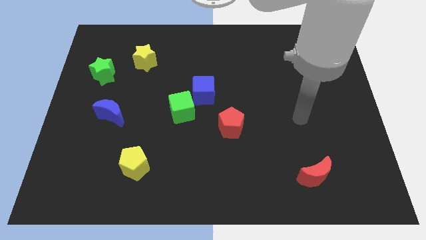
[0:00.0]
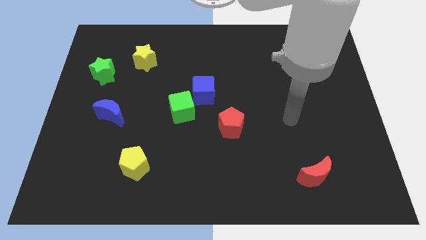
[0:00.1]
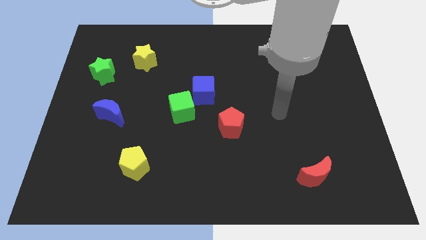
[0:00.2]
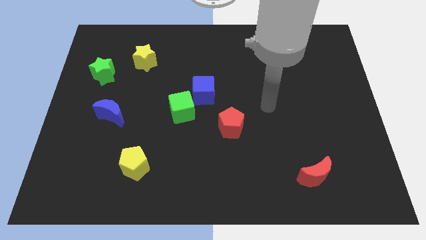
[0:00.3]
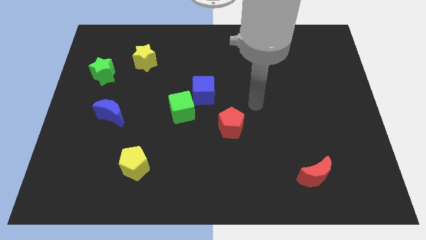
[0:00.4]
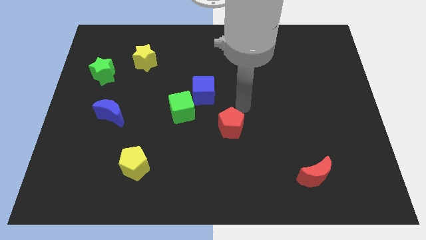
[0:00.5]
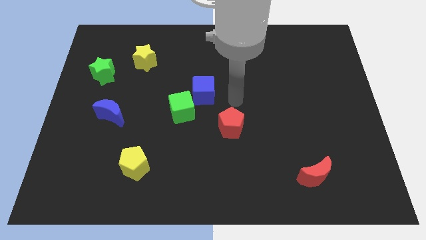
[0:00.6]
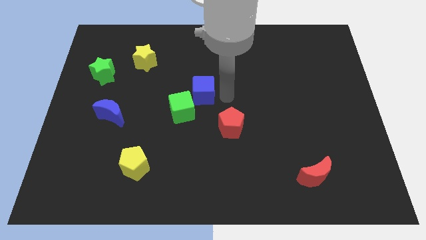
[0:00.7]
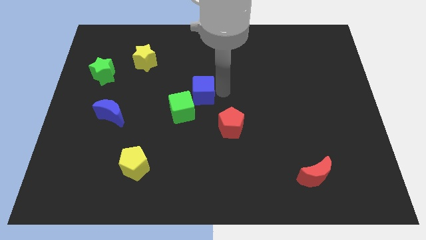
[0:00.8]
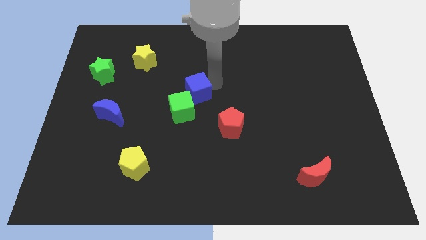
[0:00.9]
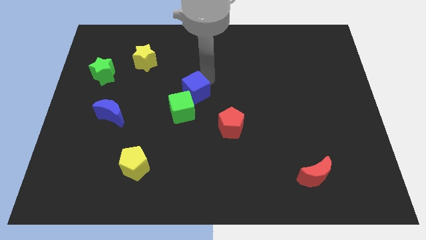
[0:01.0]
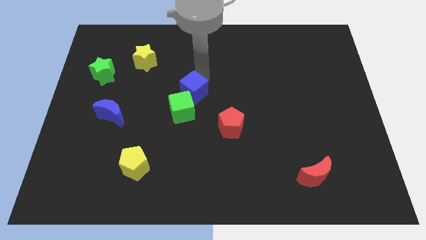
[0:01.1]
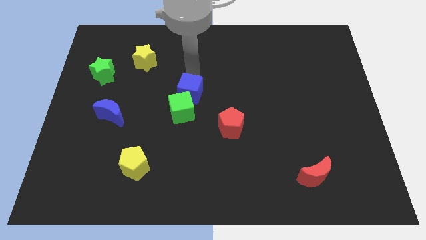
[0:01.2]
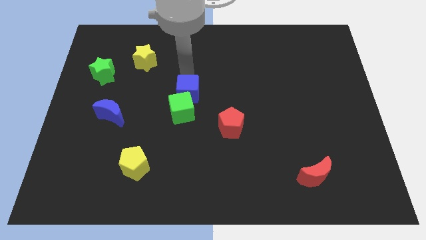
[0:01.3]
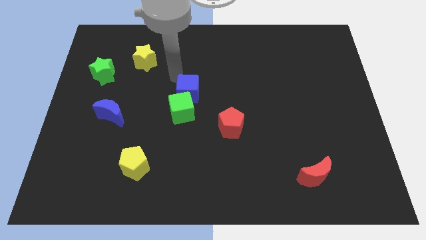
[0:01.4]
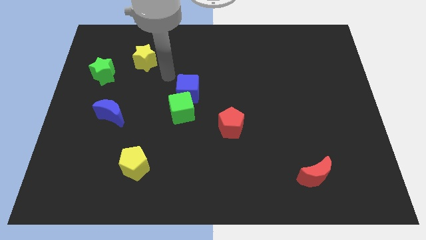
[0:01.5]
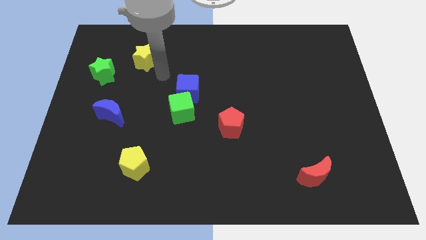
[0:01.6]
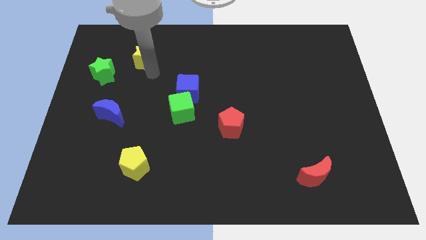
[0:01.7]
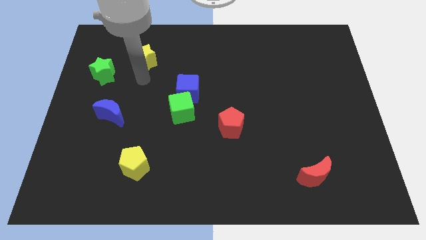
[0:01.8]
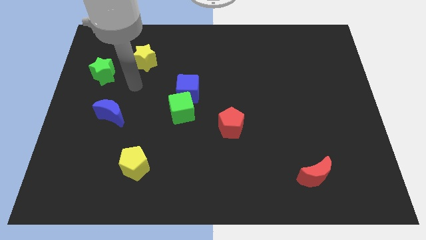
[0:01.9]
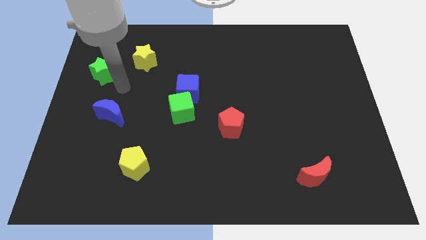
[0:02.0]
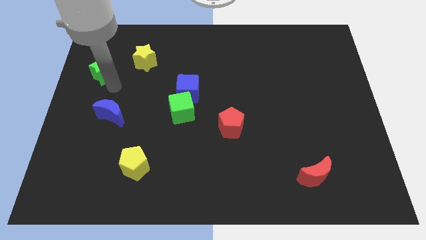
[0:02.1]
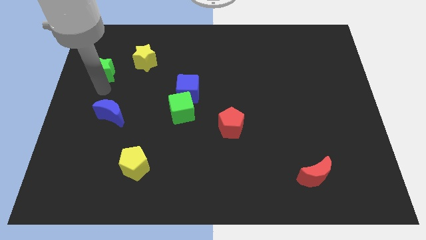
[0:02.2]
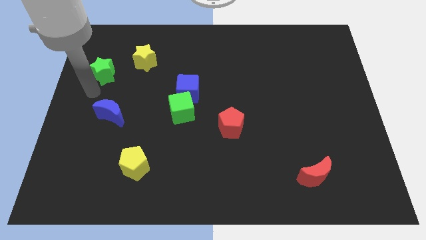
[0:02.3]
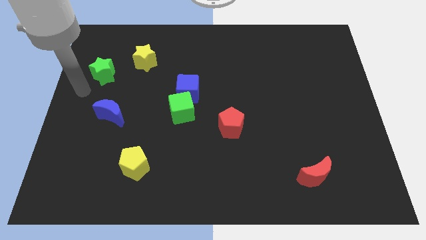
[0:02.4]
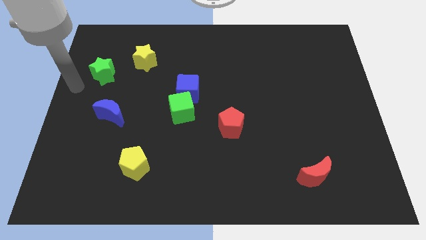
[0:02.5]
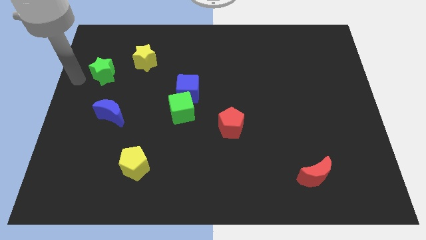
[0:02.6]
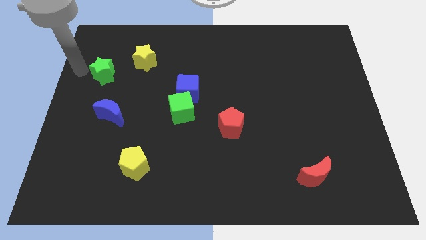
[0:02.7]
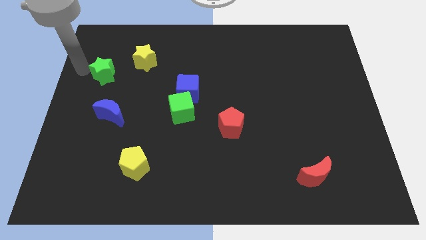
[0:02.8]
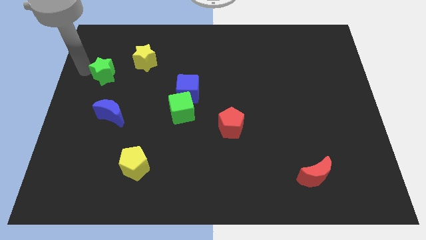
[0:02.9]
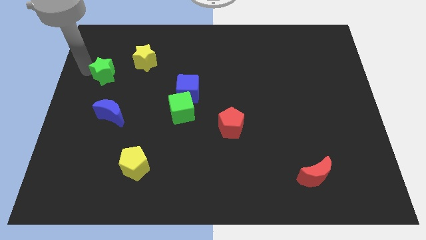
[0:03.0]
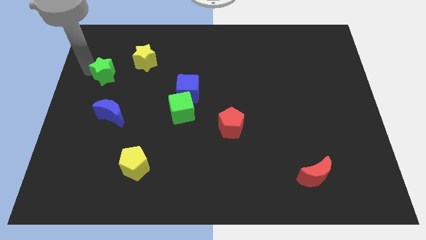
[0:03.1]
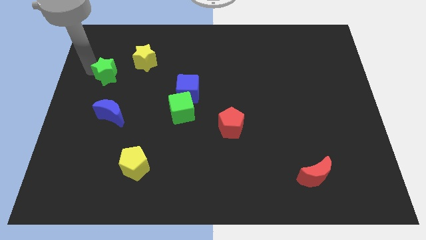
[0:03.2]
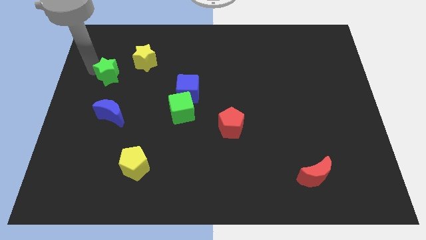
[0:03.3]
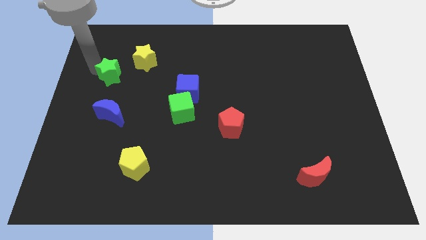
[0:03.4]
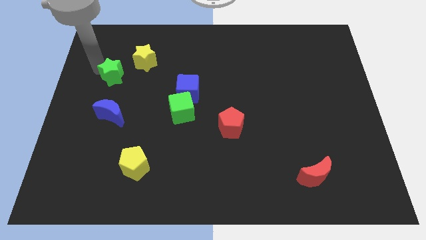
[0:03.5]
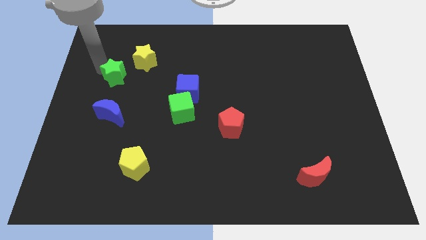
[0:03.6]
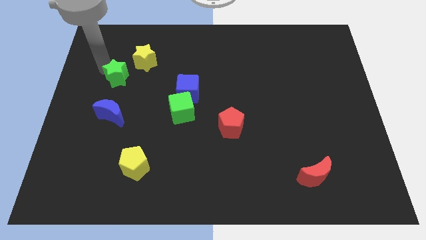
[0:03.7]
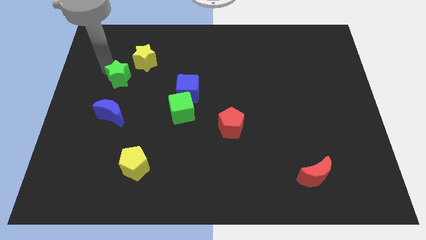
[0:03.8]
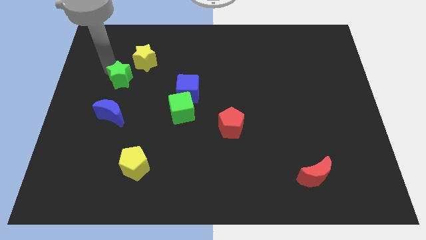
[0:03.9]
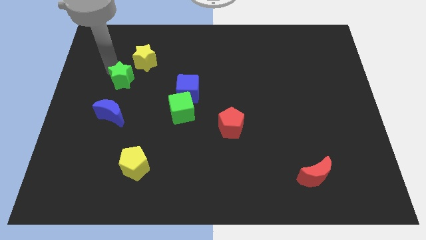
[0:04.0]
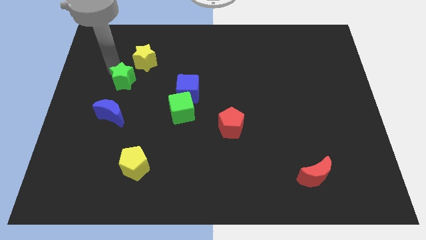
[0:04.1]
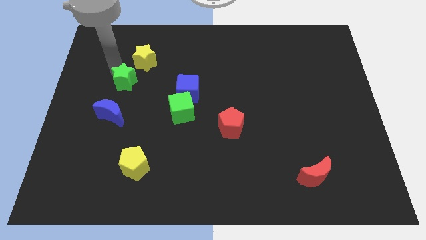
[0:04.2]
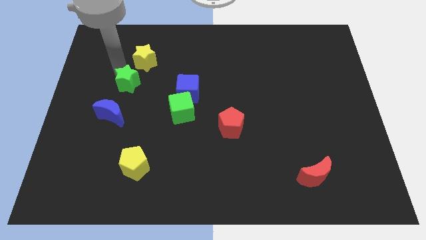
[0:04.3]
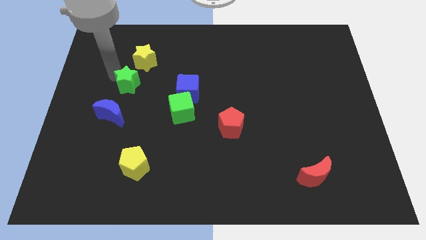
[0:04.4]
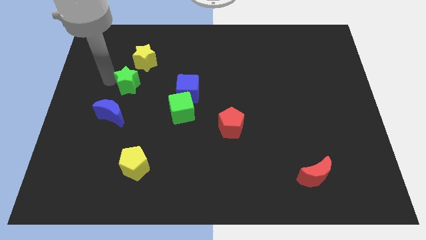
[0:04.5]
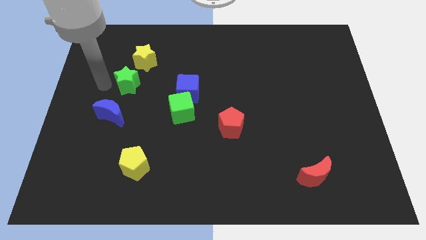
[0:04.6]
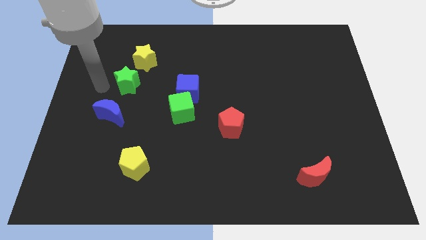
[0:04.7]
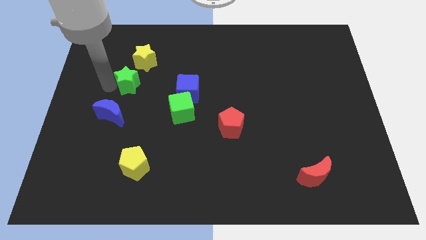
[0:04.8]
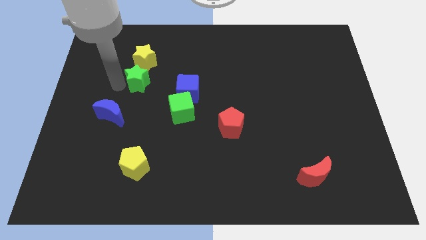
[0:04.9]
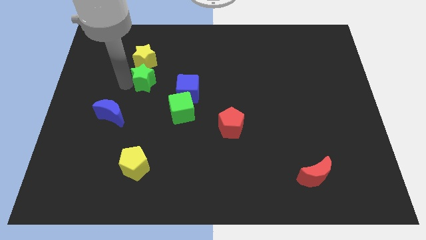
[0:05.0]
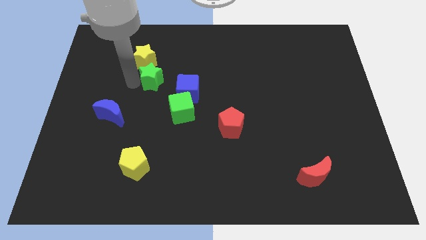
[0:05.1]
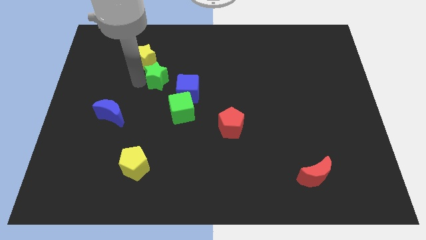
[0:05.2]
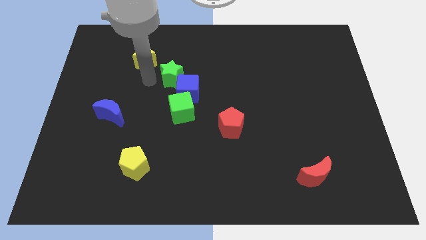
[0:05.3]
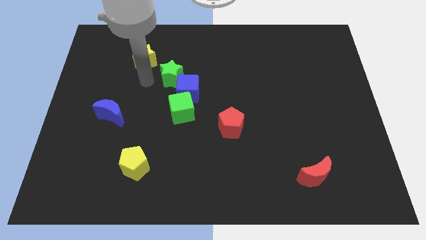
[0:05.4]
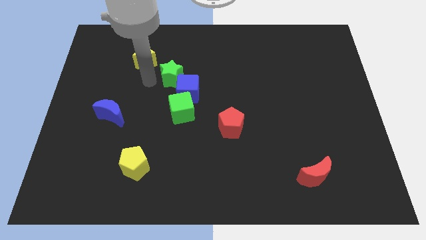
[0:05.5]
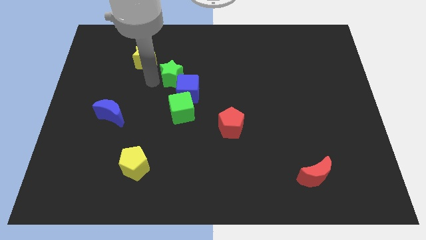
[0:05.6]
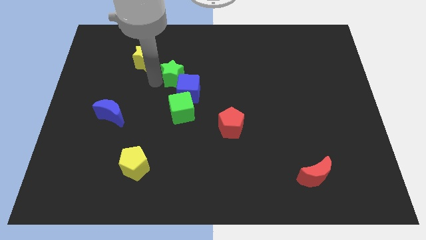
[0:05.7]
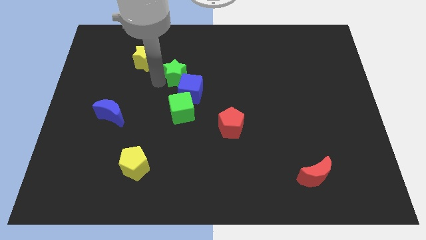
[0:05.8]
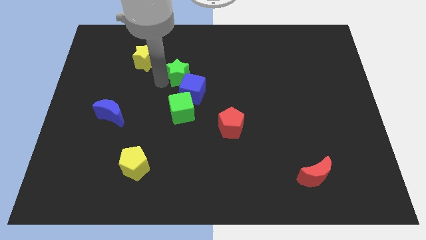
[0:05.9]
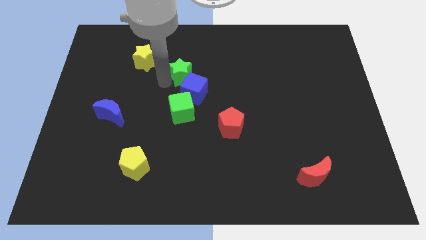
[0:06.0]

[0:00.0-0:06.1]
move the green star right

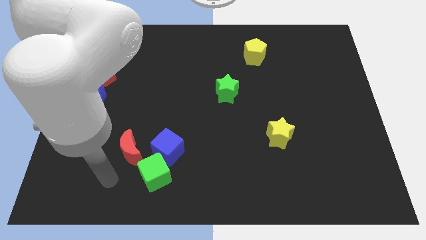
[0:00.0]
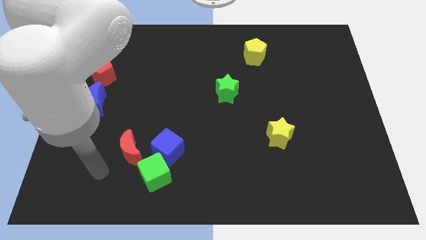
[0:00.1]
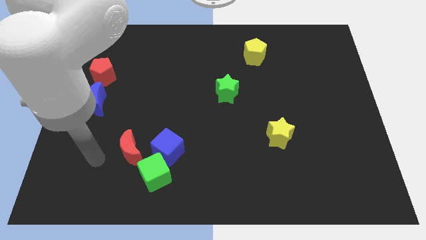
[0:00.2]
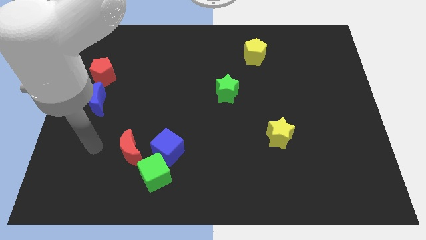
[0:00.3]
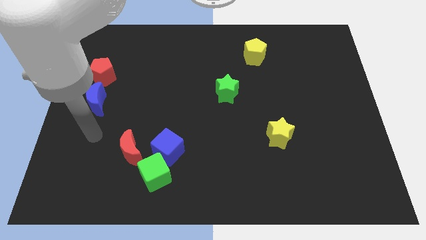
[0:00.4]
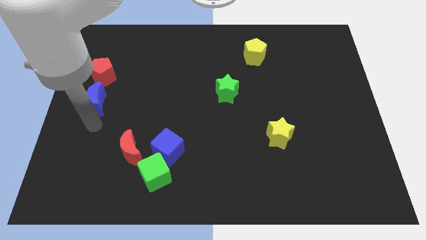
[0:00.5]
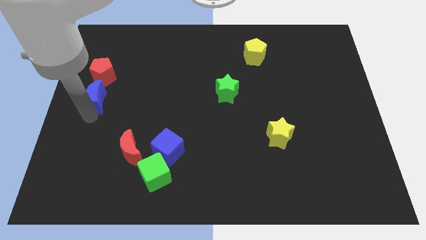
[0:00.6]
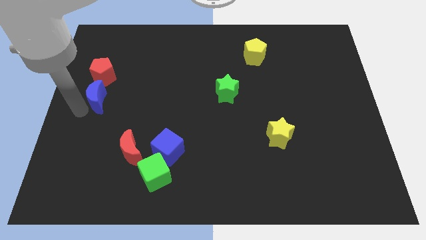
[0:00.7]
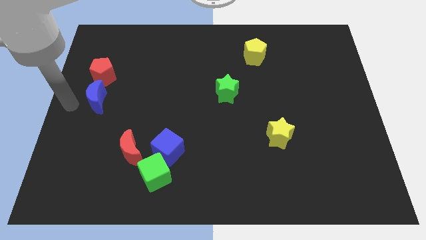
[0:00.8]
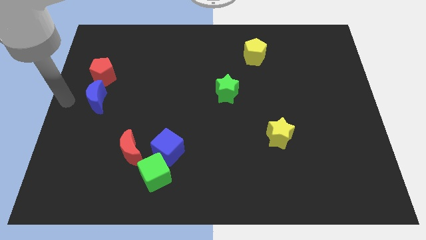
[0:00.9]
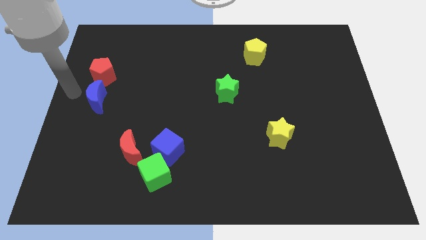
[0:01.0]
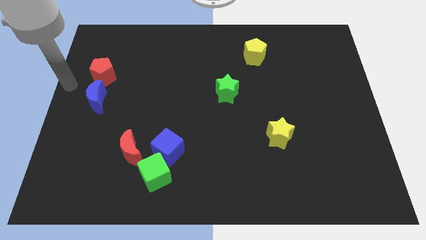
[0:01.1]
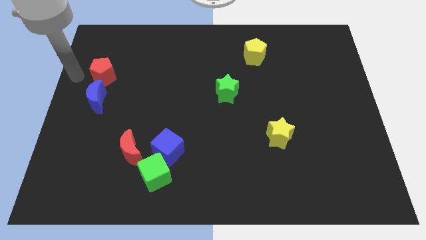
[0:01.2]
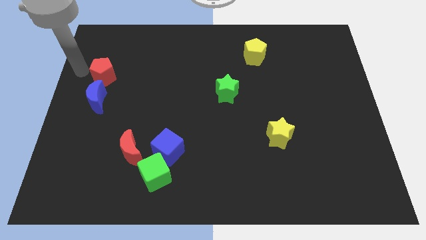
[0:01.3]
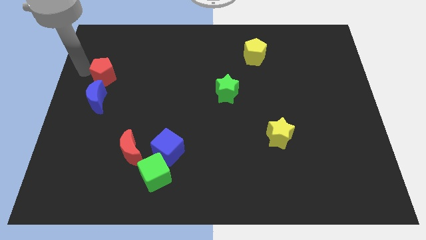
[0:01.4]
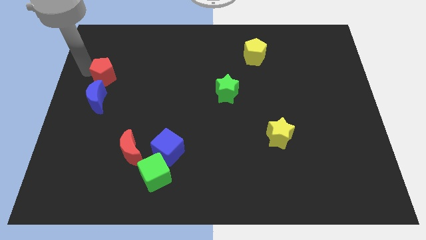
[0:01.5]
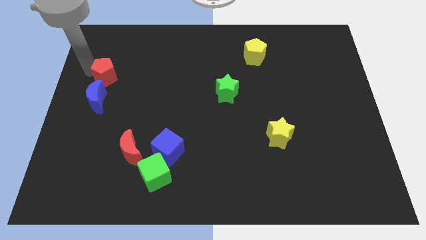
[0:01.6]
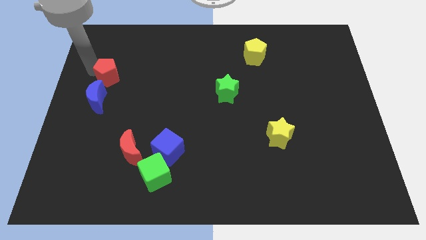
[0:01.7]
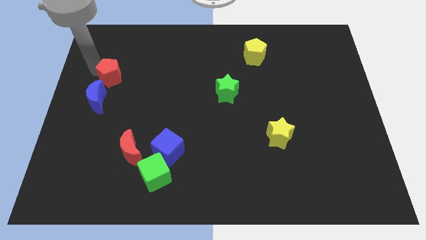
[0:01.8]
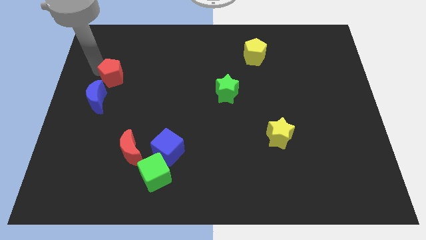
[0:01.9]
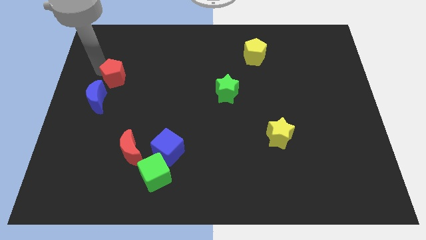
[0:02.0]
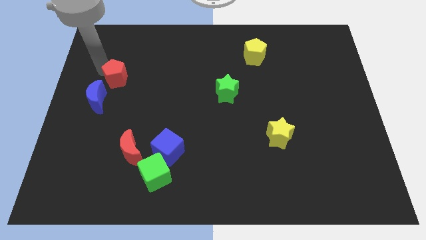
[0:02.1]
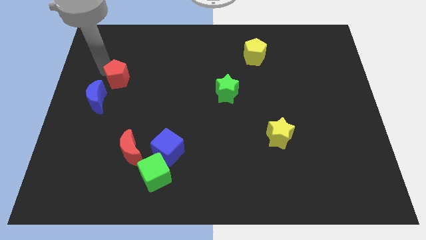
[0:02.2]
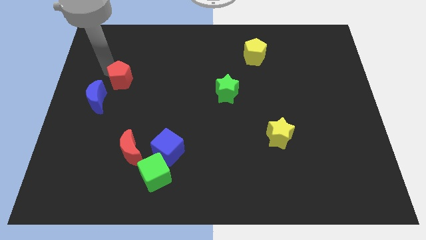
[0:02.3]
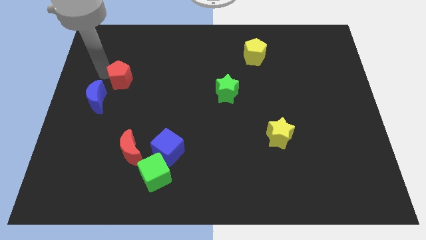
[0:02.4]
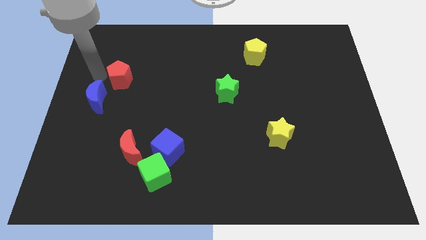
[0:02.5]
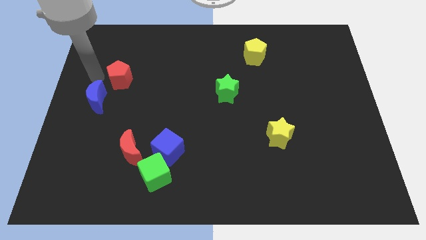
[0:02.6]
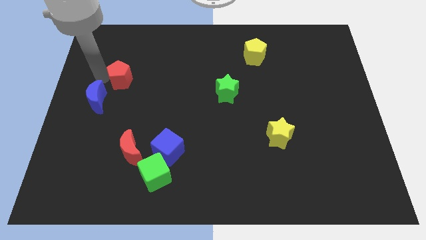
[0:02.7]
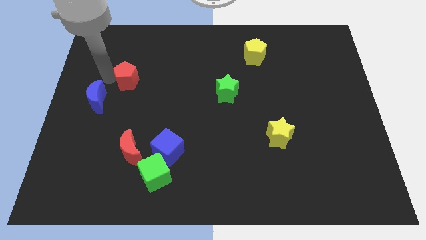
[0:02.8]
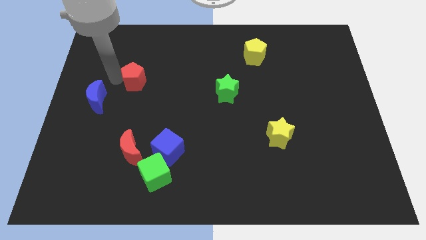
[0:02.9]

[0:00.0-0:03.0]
slightly push the red pentagon to the right
